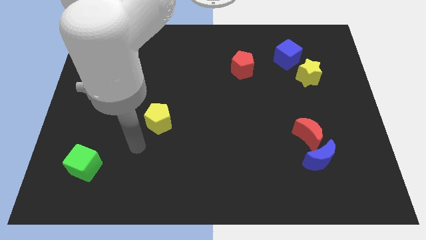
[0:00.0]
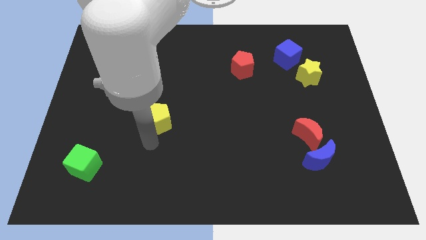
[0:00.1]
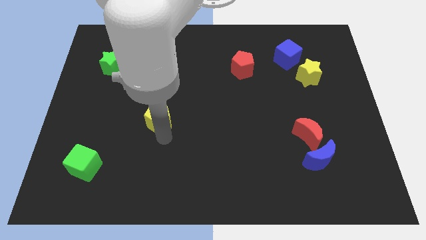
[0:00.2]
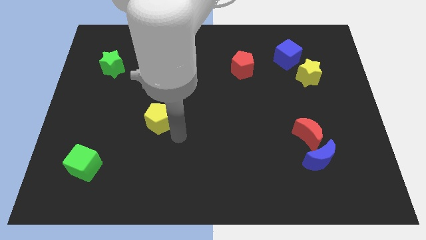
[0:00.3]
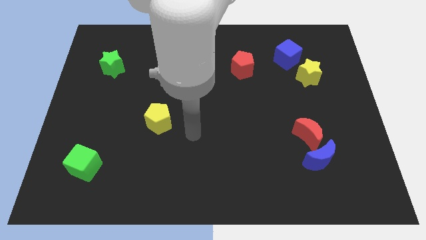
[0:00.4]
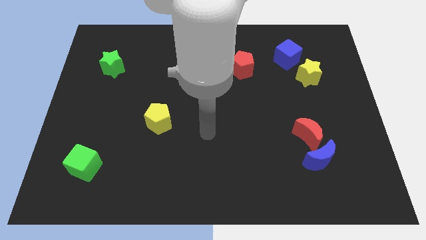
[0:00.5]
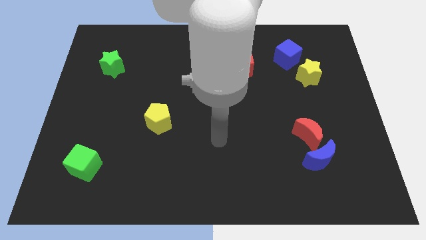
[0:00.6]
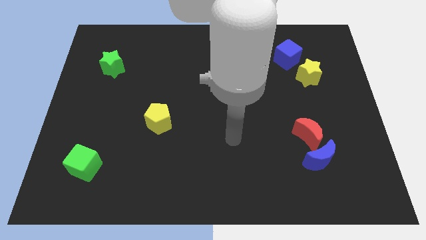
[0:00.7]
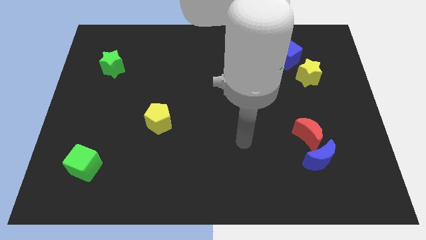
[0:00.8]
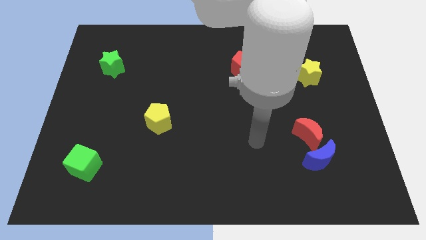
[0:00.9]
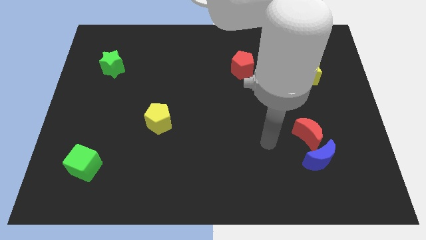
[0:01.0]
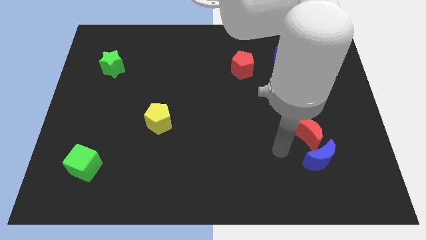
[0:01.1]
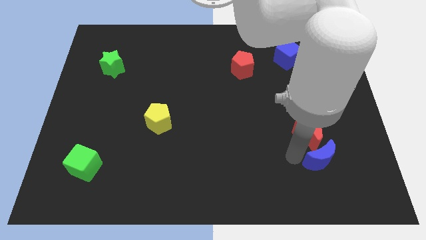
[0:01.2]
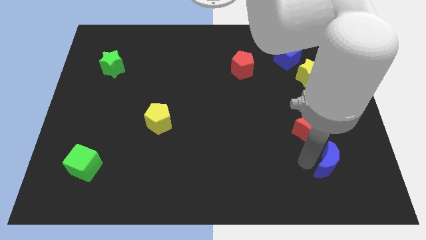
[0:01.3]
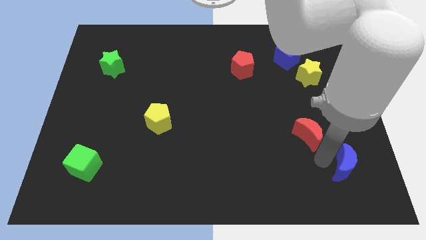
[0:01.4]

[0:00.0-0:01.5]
separate the red moon from the blue moon

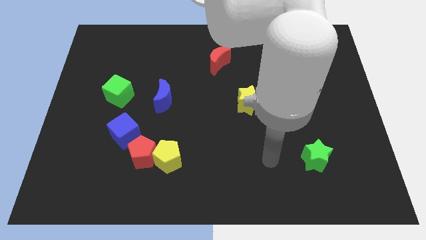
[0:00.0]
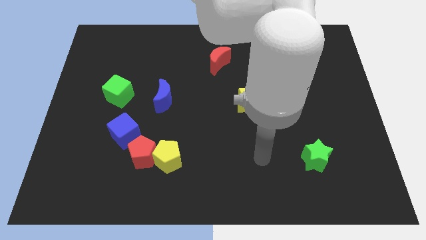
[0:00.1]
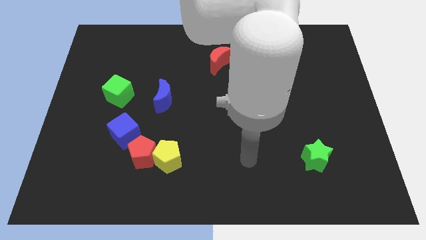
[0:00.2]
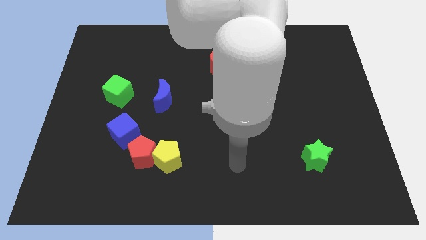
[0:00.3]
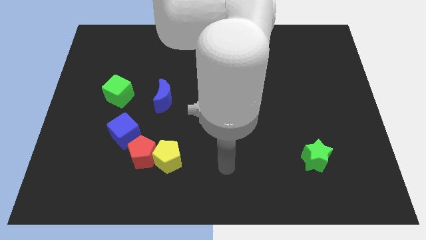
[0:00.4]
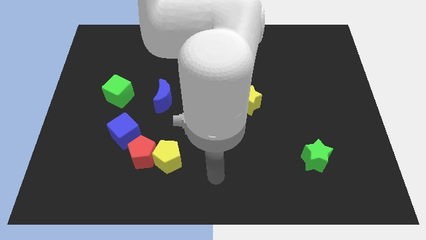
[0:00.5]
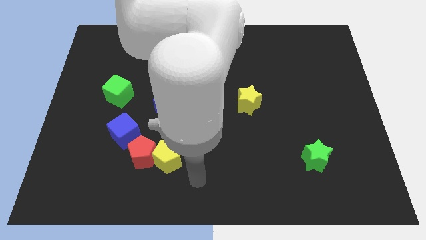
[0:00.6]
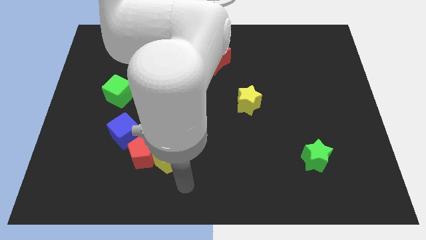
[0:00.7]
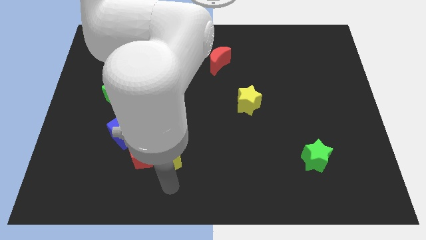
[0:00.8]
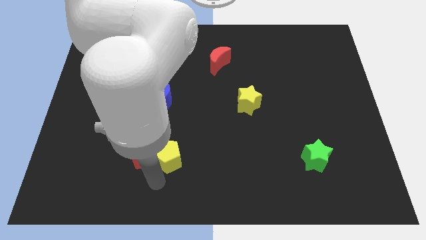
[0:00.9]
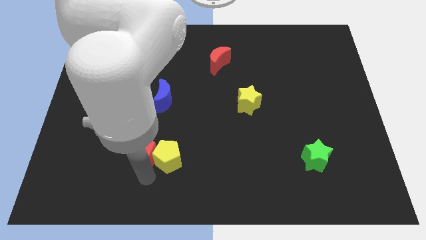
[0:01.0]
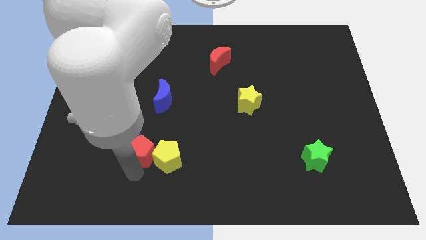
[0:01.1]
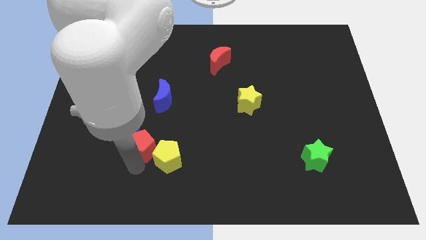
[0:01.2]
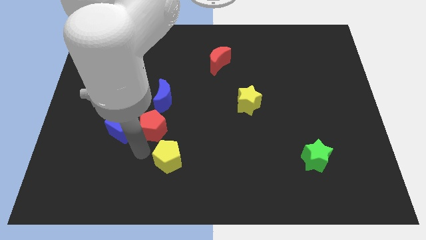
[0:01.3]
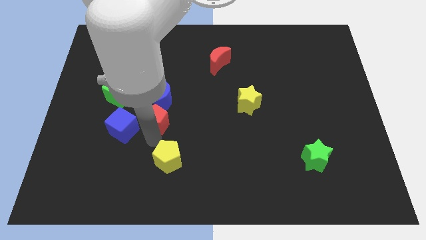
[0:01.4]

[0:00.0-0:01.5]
move the yellow pentagon away from the red pentagon

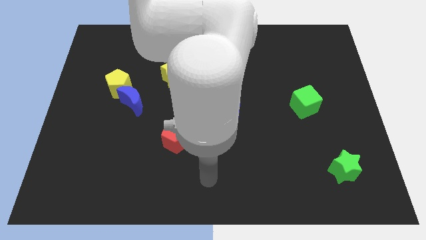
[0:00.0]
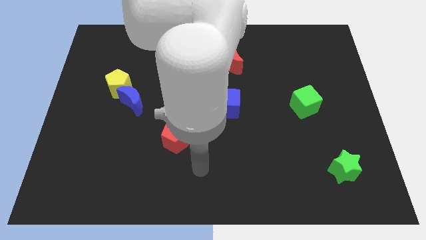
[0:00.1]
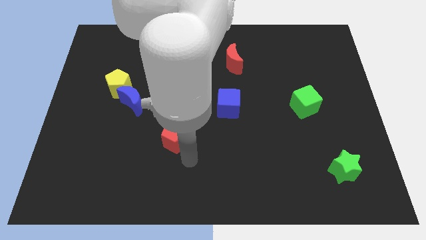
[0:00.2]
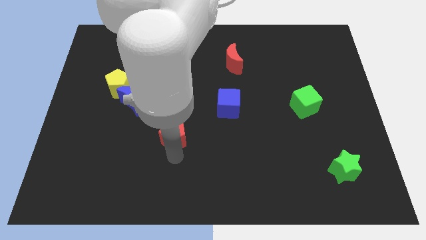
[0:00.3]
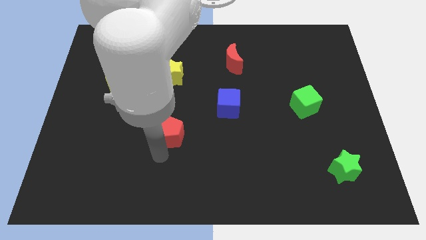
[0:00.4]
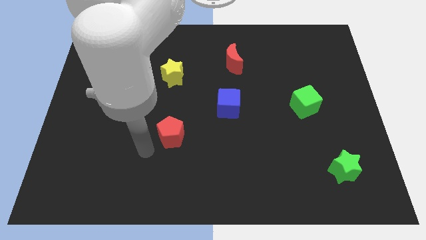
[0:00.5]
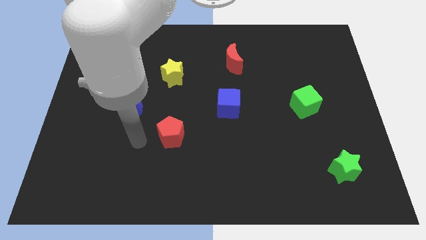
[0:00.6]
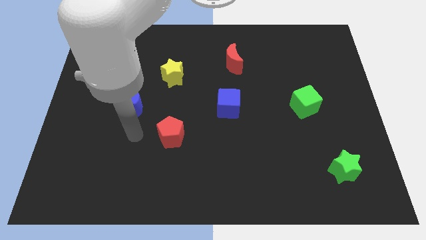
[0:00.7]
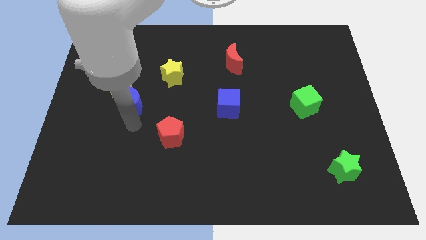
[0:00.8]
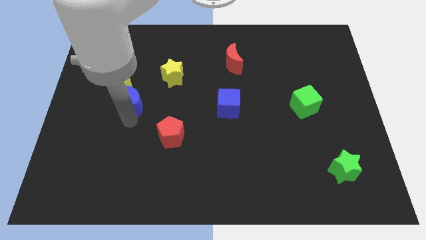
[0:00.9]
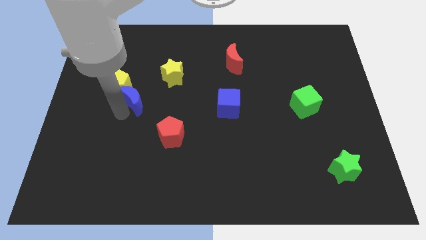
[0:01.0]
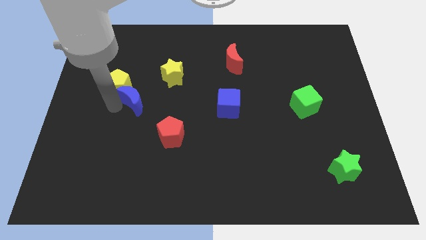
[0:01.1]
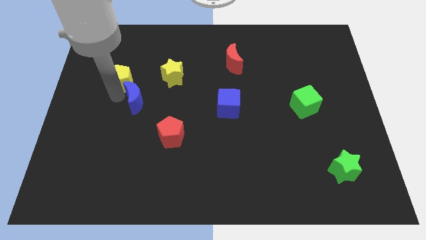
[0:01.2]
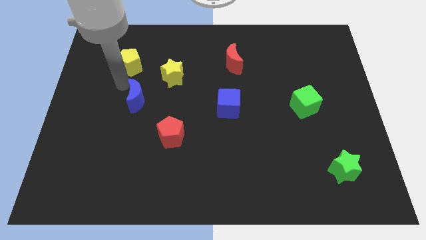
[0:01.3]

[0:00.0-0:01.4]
pull the blue moon apart from the yellow pentagon

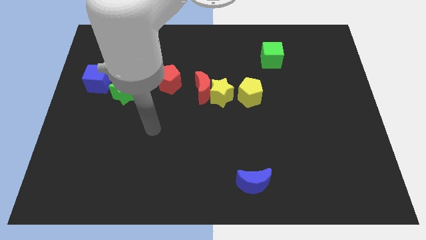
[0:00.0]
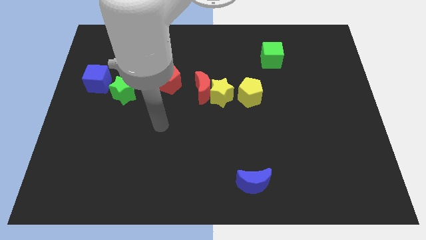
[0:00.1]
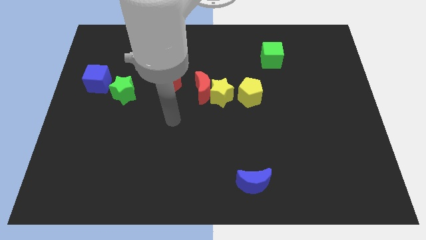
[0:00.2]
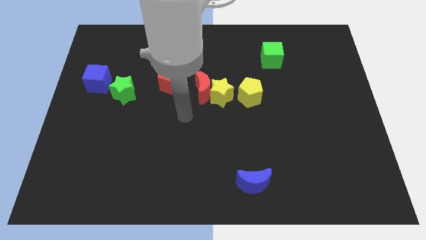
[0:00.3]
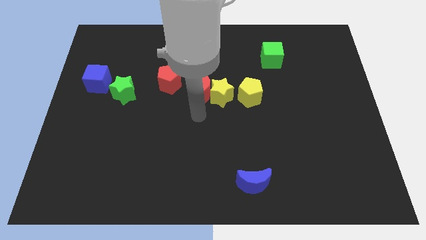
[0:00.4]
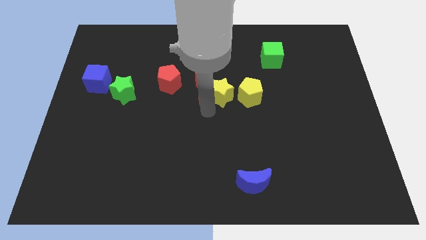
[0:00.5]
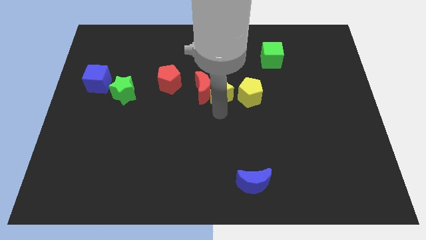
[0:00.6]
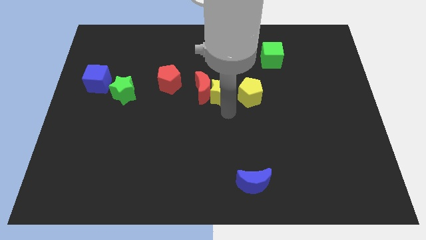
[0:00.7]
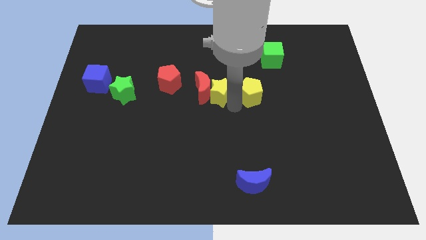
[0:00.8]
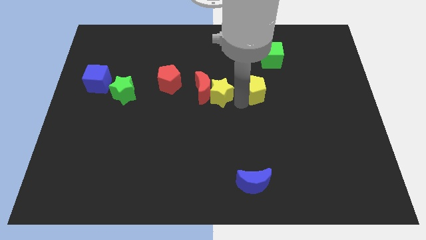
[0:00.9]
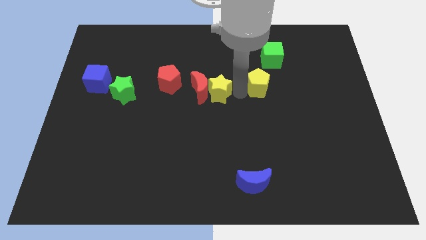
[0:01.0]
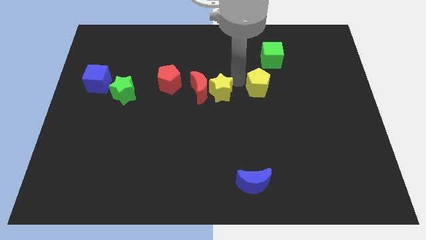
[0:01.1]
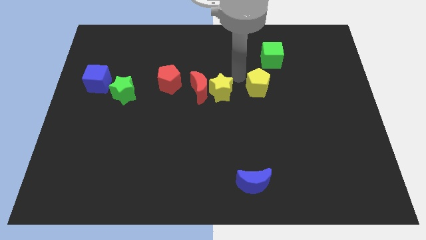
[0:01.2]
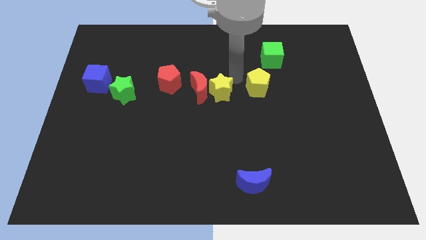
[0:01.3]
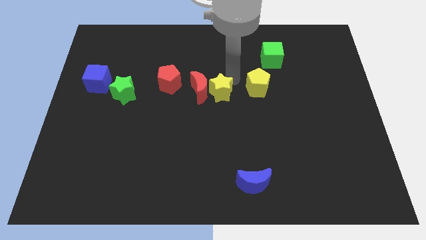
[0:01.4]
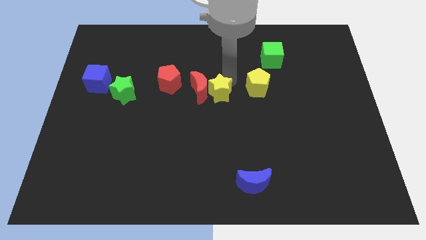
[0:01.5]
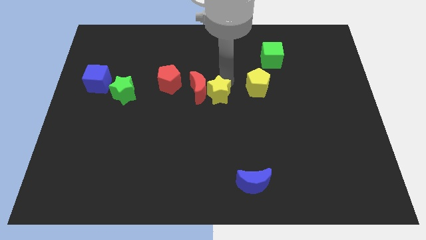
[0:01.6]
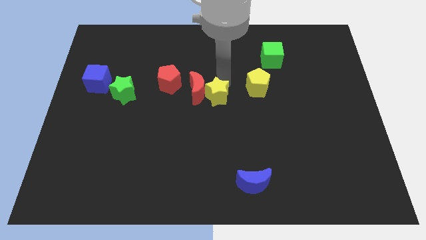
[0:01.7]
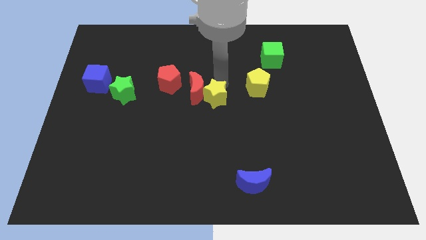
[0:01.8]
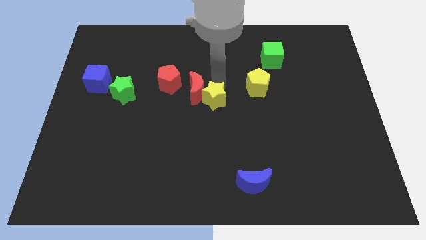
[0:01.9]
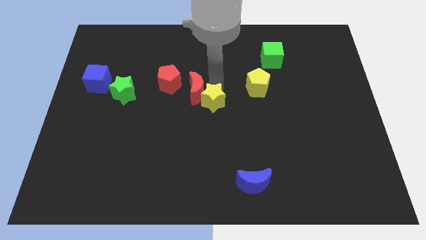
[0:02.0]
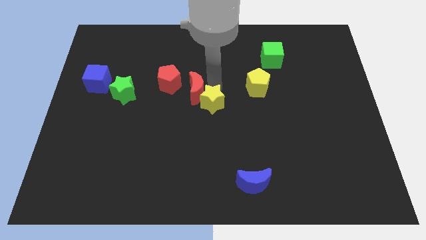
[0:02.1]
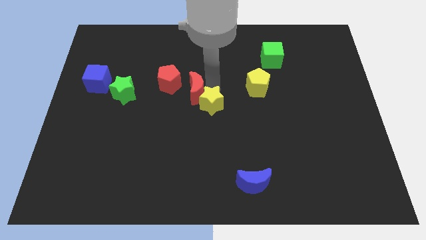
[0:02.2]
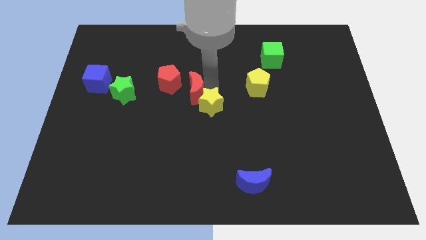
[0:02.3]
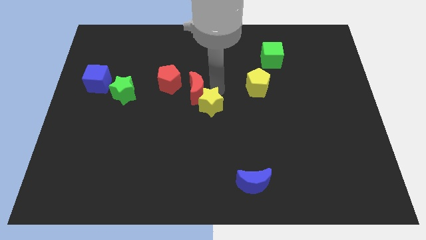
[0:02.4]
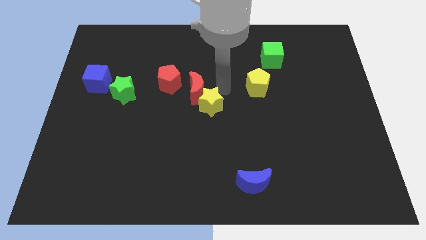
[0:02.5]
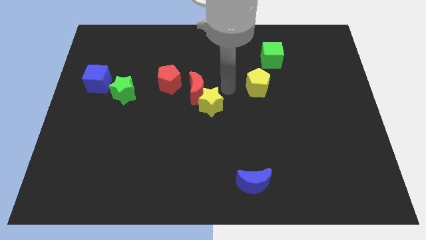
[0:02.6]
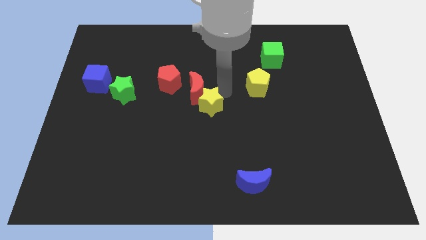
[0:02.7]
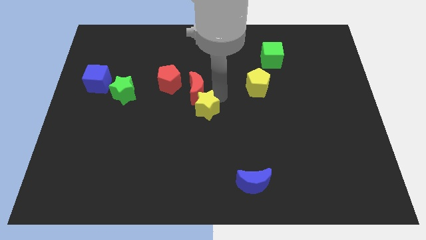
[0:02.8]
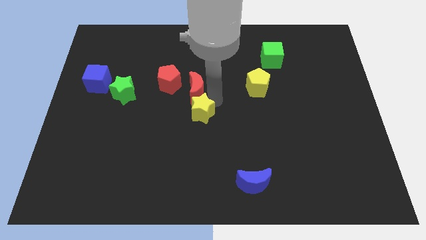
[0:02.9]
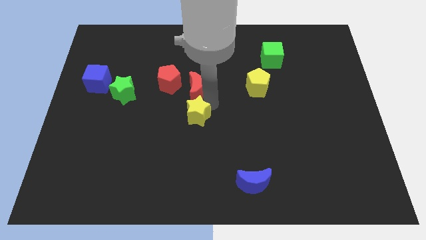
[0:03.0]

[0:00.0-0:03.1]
move the yellow star away from the red moon and yellow pentagon

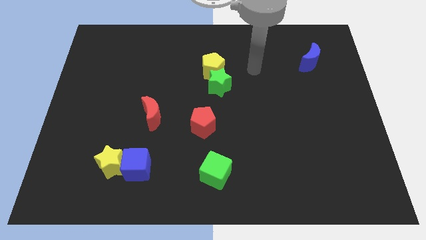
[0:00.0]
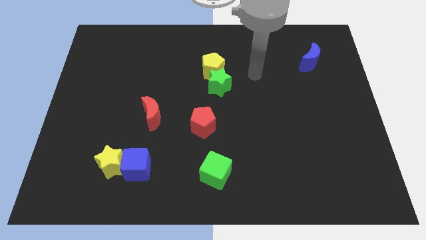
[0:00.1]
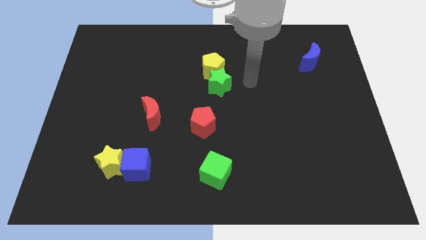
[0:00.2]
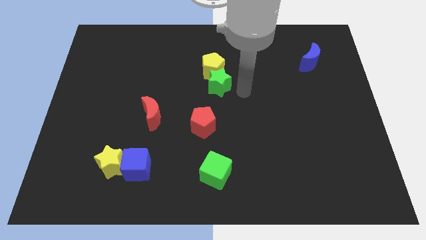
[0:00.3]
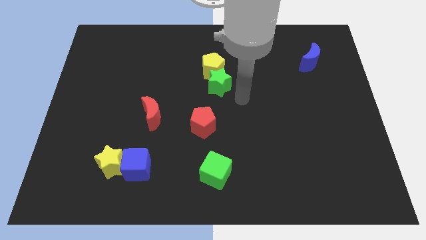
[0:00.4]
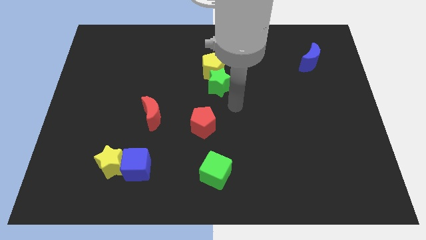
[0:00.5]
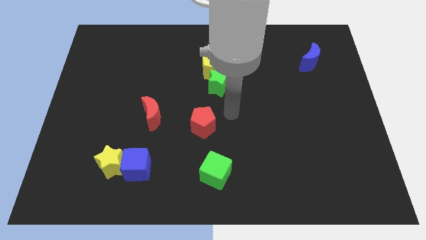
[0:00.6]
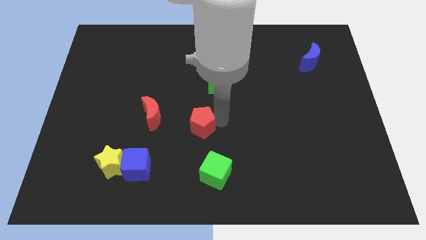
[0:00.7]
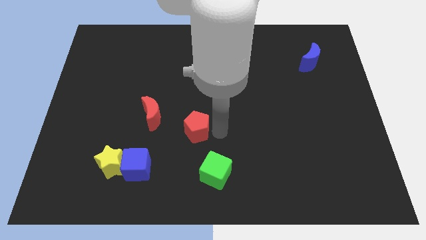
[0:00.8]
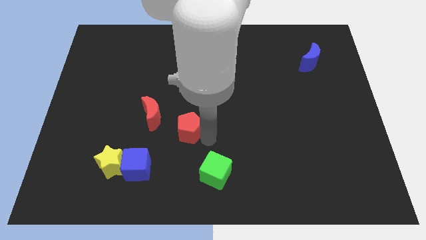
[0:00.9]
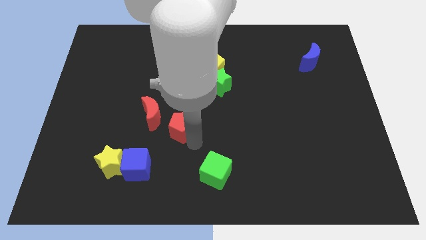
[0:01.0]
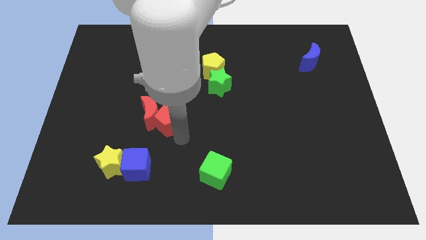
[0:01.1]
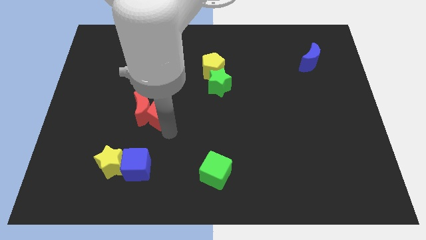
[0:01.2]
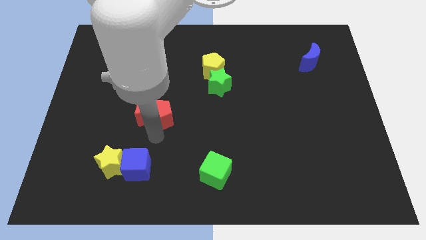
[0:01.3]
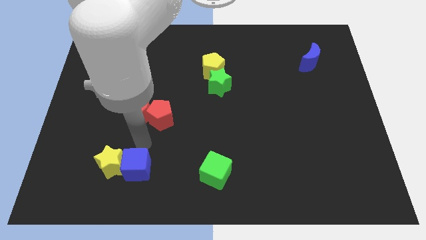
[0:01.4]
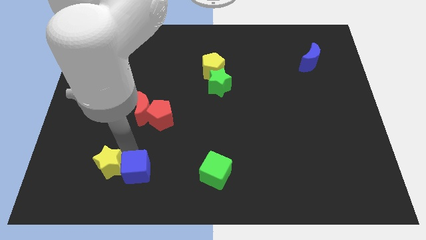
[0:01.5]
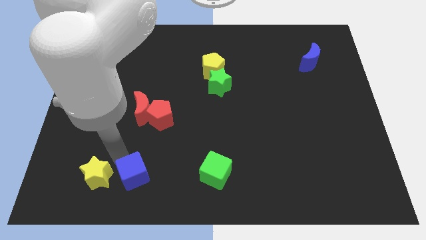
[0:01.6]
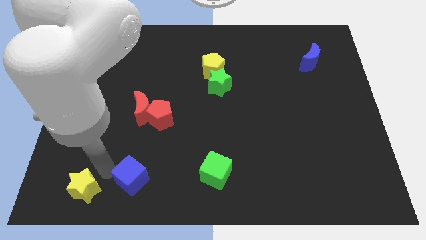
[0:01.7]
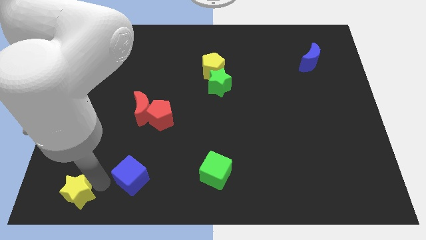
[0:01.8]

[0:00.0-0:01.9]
move the blue cube away from the yellow star

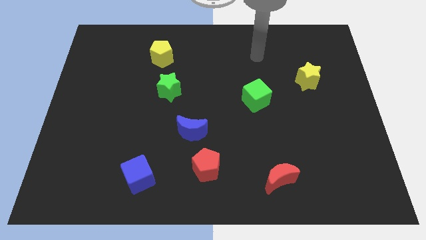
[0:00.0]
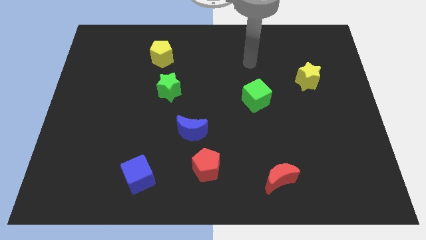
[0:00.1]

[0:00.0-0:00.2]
pull the red pentagon apart from the blue moon
